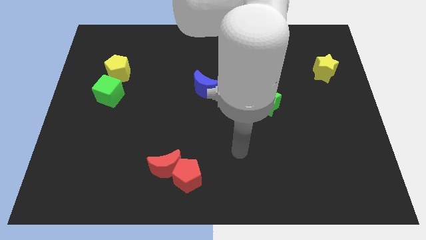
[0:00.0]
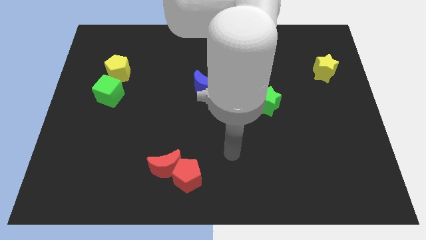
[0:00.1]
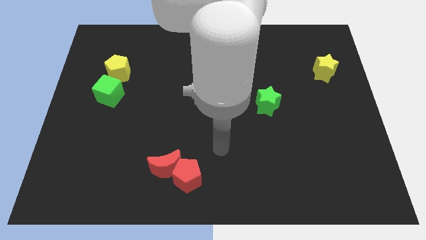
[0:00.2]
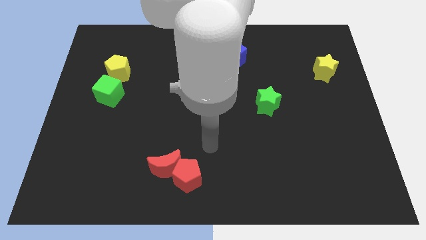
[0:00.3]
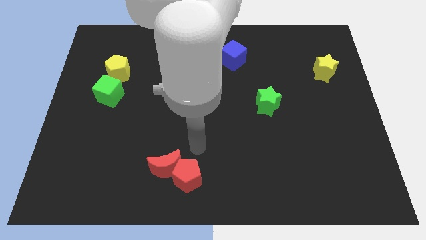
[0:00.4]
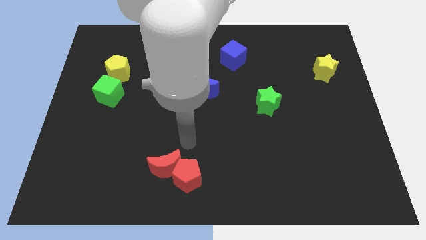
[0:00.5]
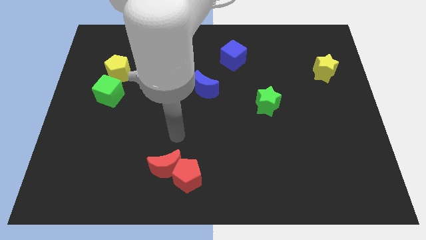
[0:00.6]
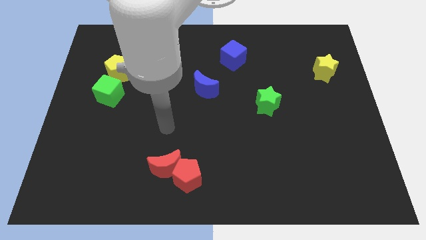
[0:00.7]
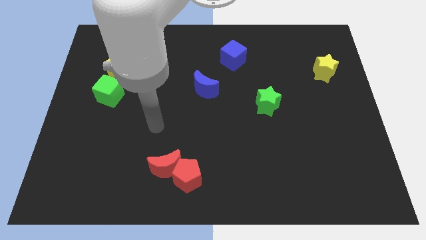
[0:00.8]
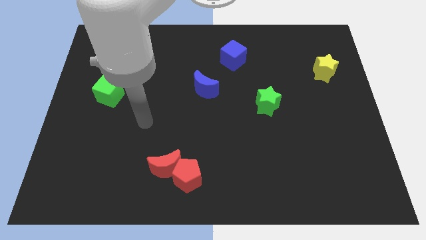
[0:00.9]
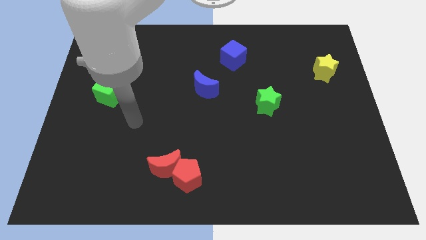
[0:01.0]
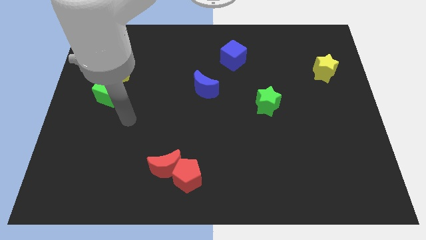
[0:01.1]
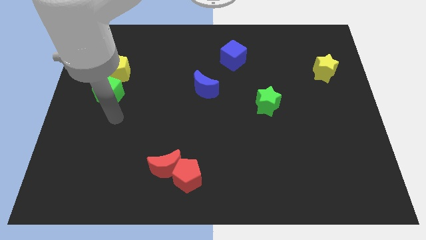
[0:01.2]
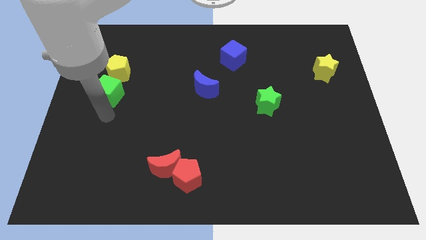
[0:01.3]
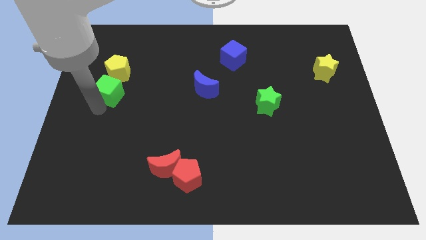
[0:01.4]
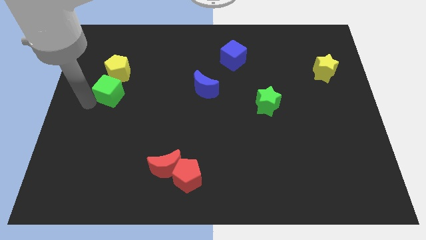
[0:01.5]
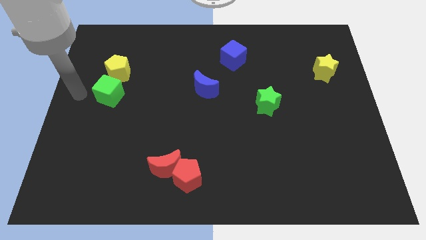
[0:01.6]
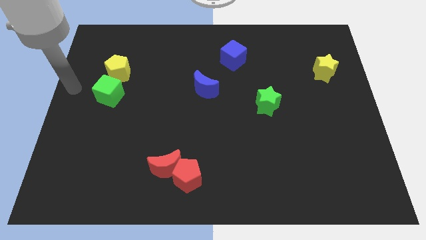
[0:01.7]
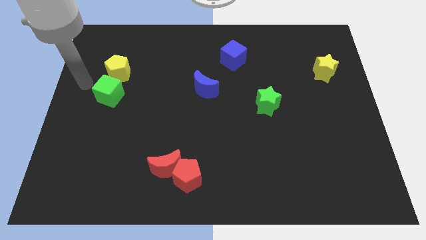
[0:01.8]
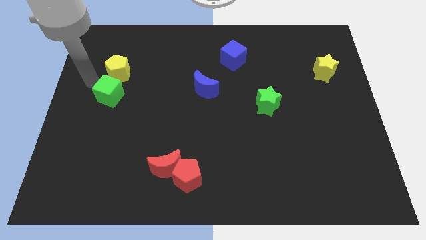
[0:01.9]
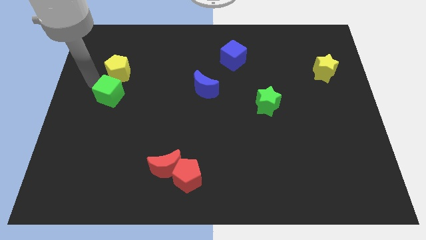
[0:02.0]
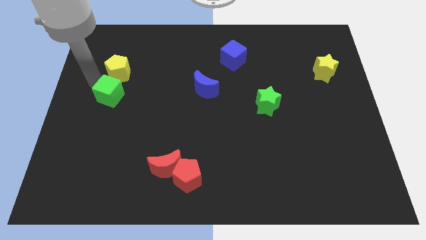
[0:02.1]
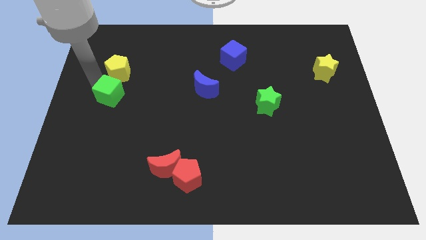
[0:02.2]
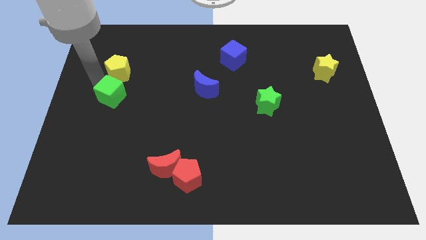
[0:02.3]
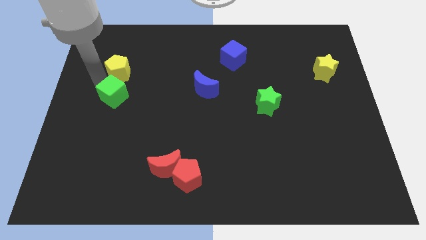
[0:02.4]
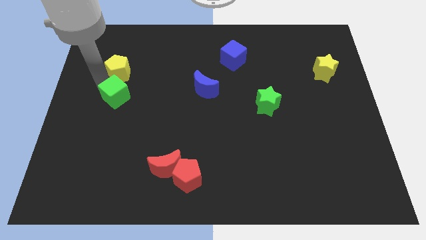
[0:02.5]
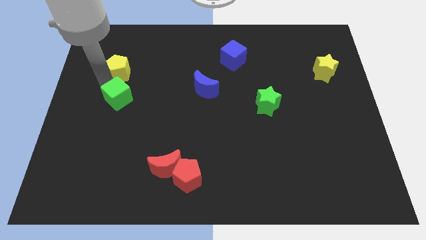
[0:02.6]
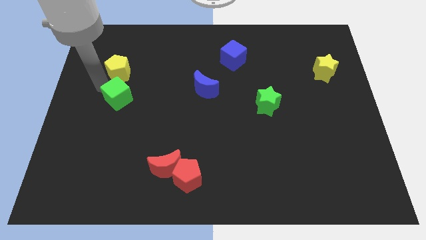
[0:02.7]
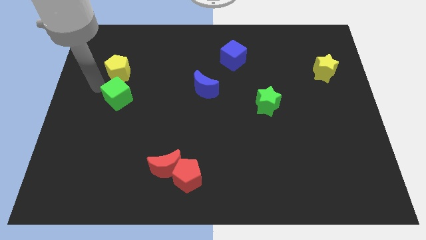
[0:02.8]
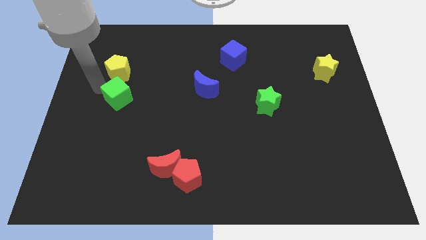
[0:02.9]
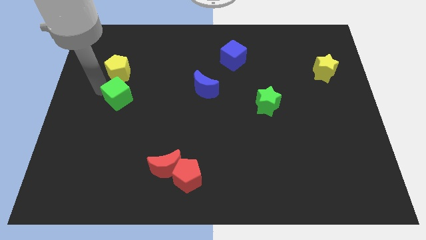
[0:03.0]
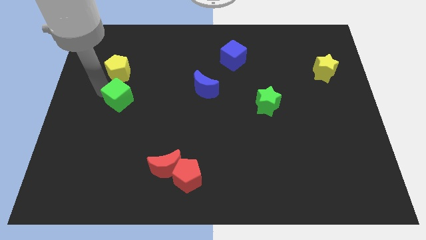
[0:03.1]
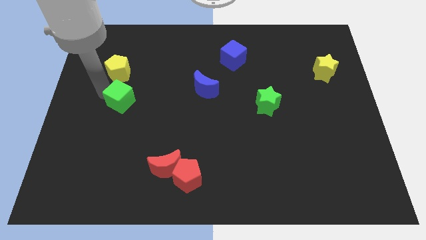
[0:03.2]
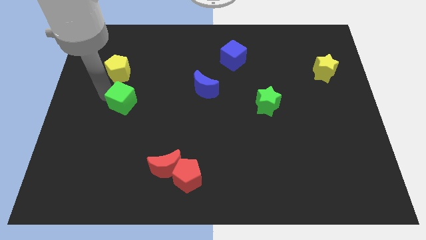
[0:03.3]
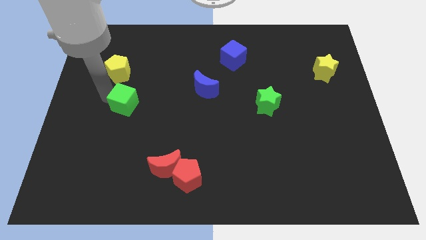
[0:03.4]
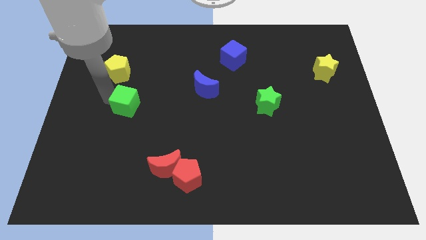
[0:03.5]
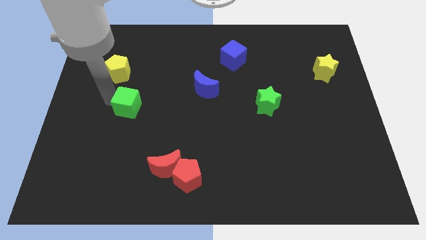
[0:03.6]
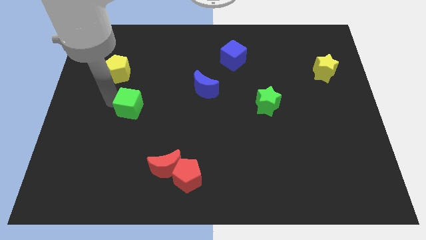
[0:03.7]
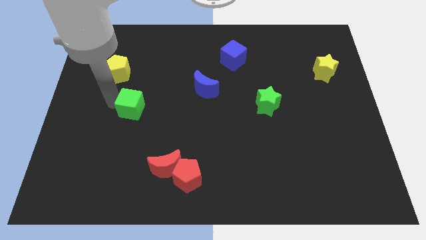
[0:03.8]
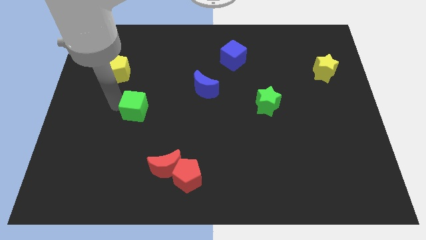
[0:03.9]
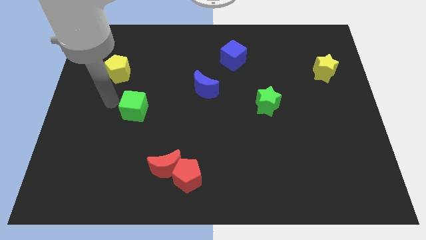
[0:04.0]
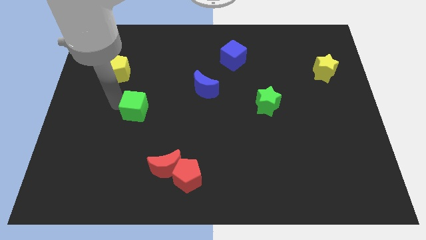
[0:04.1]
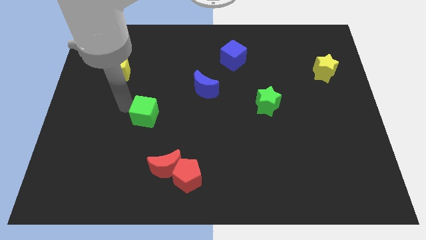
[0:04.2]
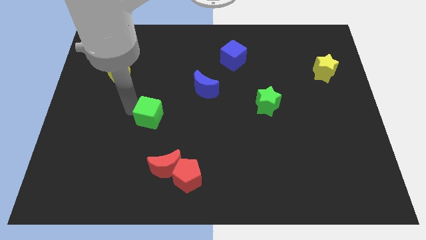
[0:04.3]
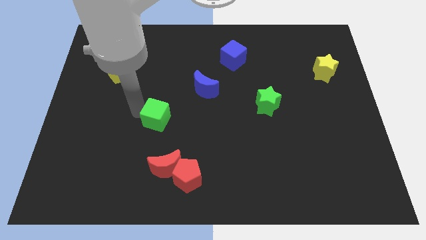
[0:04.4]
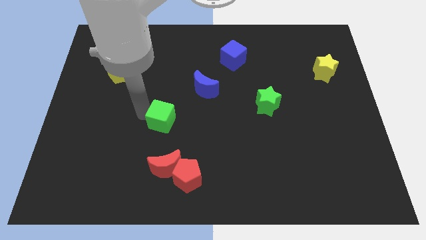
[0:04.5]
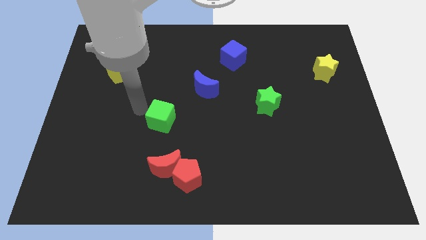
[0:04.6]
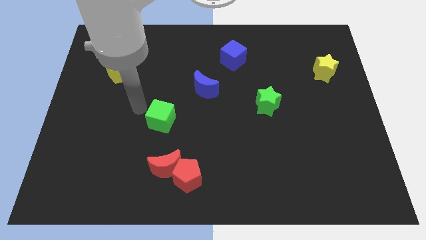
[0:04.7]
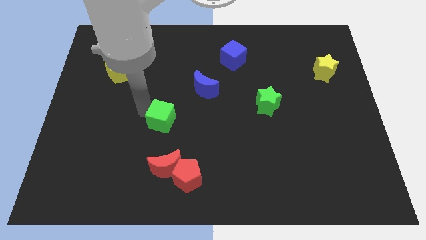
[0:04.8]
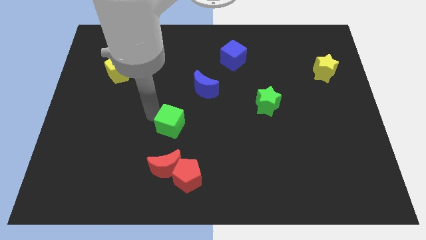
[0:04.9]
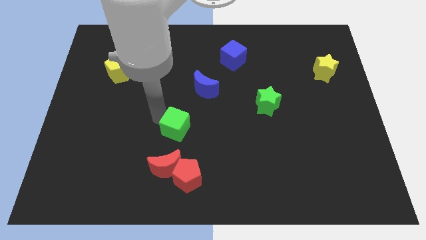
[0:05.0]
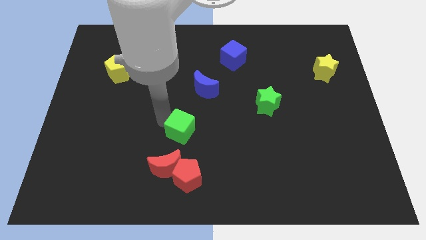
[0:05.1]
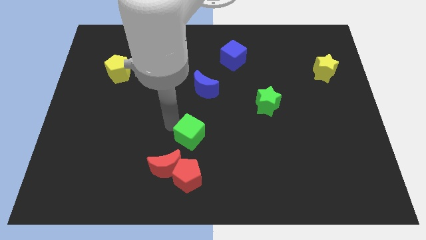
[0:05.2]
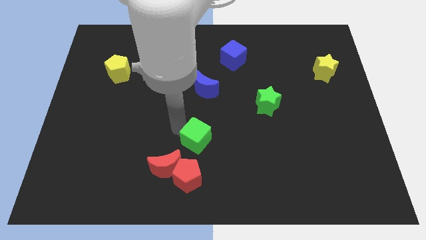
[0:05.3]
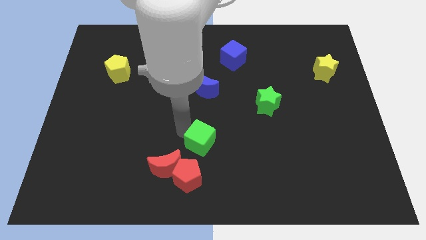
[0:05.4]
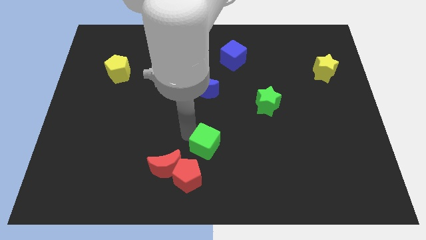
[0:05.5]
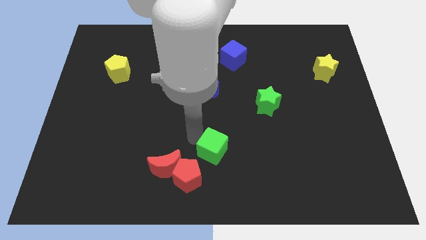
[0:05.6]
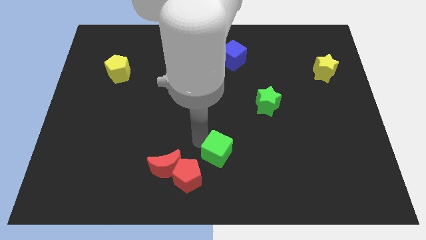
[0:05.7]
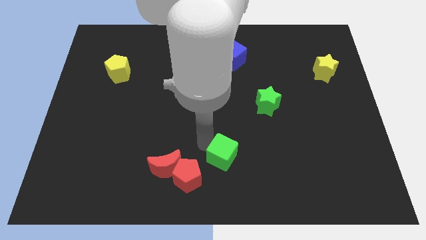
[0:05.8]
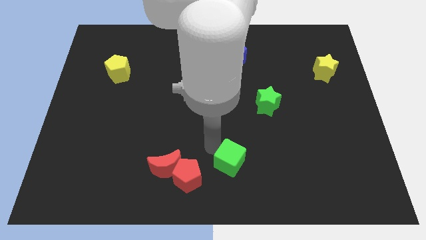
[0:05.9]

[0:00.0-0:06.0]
move the green cube just right of the red pentagon

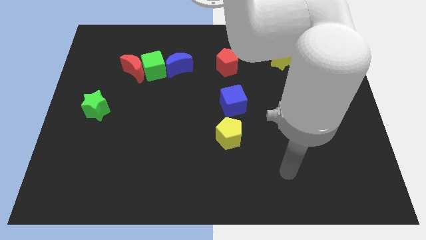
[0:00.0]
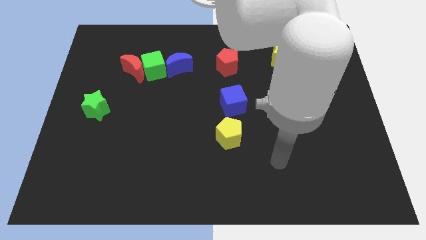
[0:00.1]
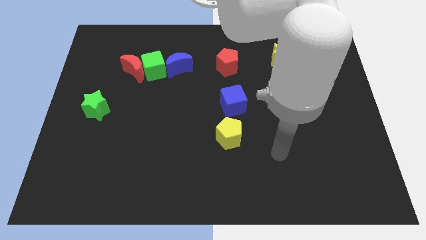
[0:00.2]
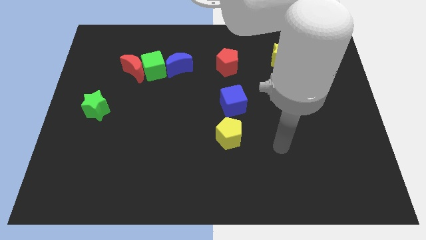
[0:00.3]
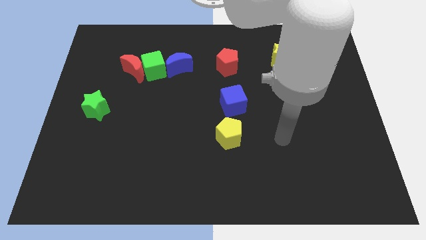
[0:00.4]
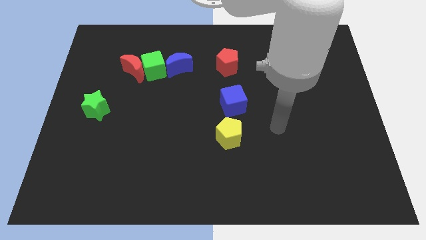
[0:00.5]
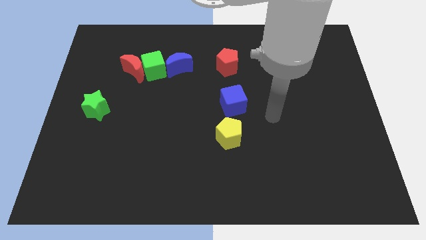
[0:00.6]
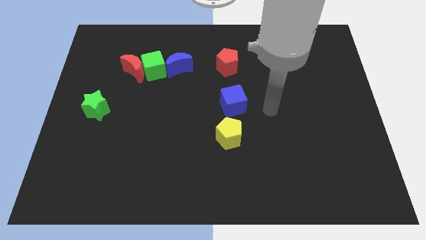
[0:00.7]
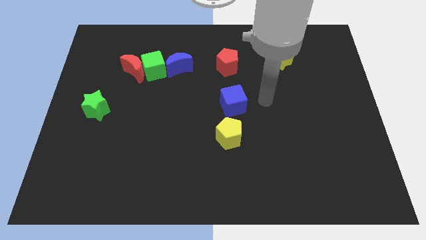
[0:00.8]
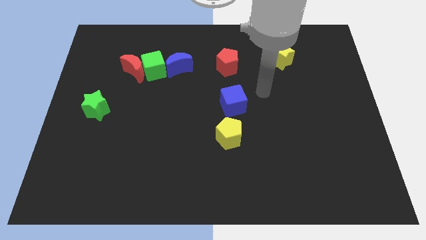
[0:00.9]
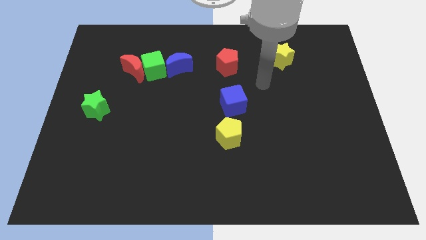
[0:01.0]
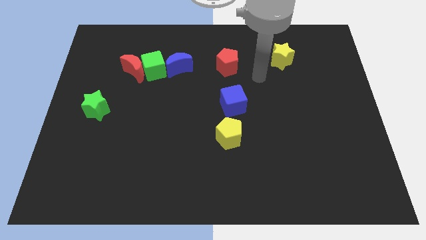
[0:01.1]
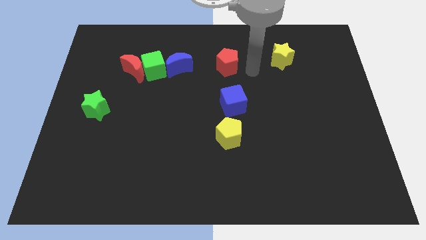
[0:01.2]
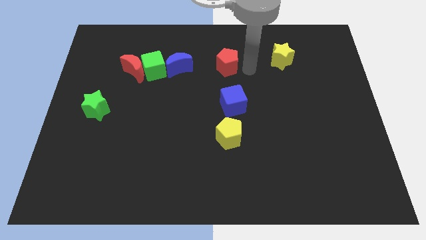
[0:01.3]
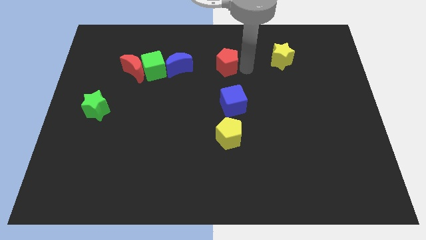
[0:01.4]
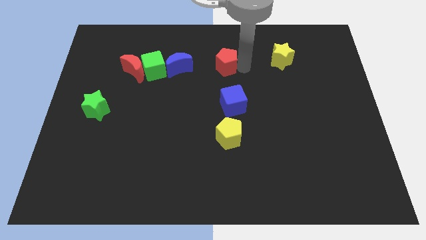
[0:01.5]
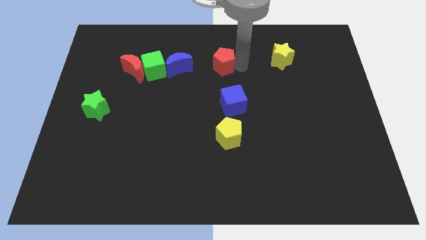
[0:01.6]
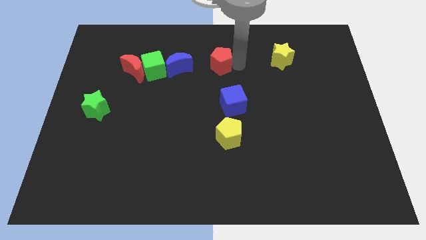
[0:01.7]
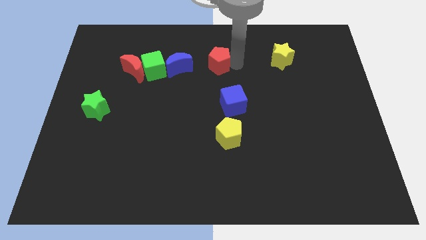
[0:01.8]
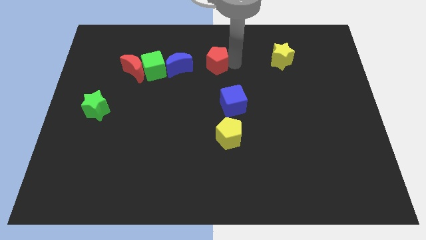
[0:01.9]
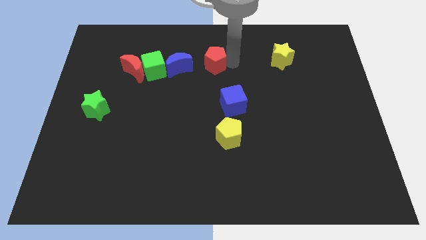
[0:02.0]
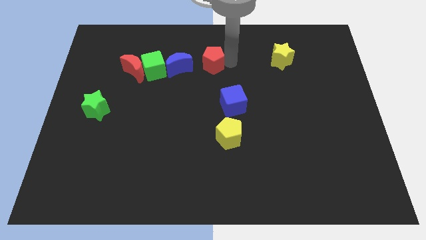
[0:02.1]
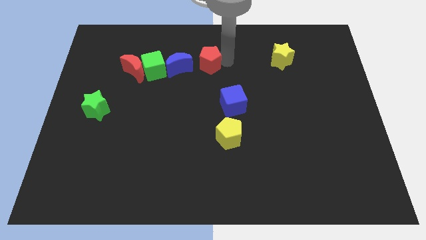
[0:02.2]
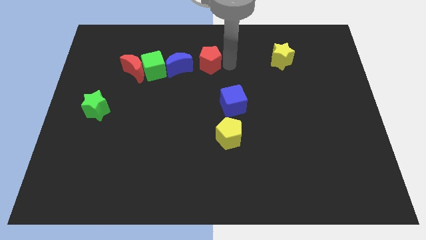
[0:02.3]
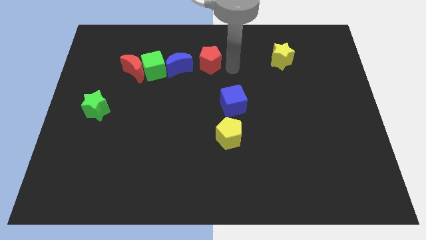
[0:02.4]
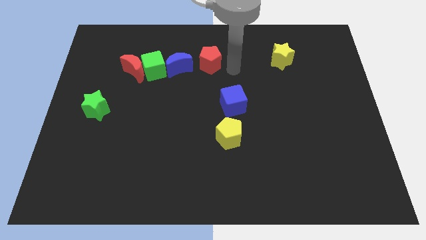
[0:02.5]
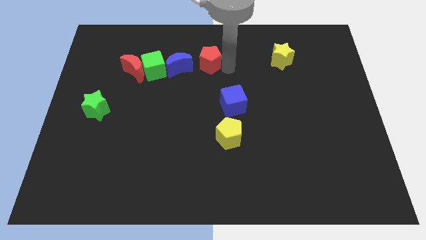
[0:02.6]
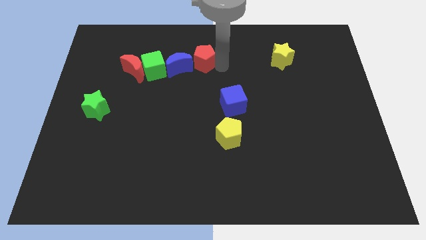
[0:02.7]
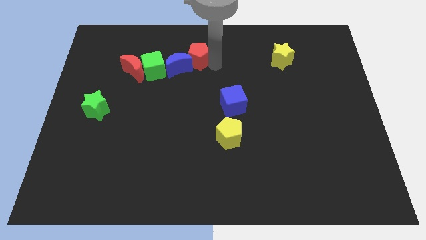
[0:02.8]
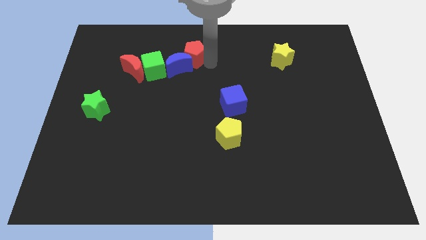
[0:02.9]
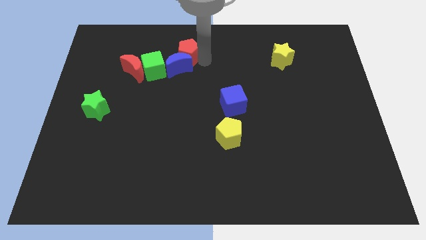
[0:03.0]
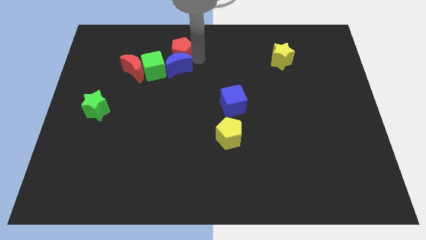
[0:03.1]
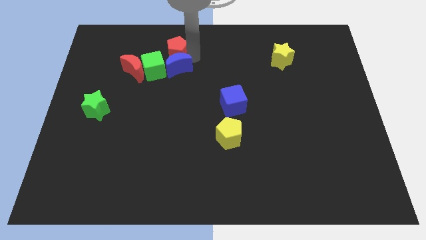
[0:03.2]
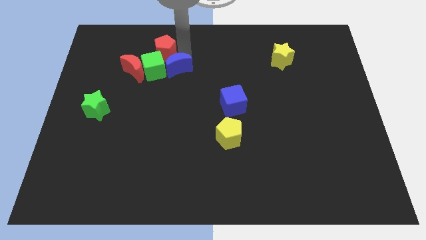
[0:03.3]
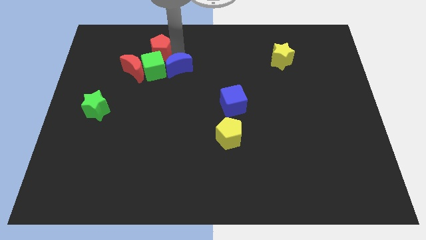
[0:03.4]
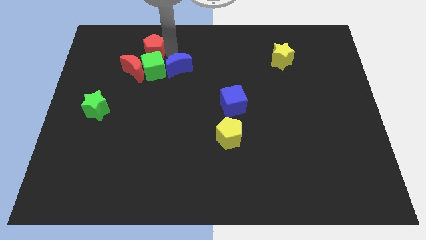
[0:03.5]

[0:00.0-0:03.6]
slide the red pentagon to the top left of the green cube
